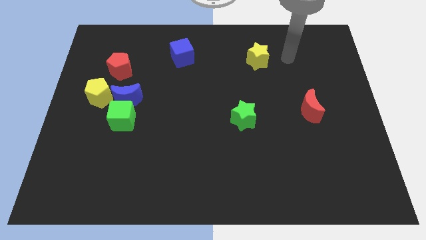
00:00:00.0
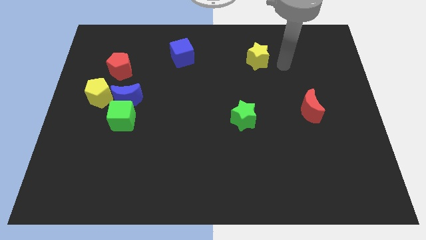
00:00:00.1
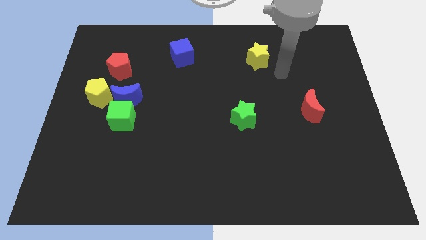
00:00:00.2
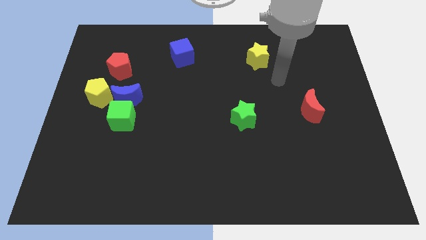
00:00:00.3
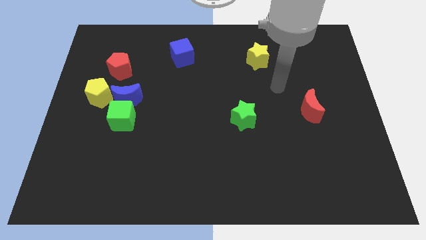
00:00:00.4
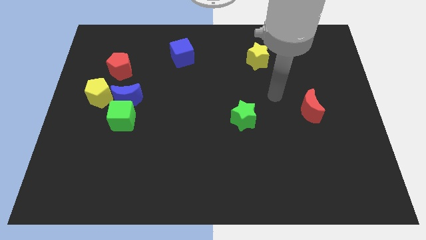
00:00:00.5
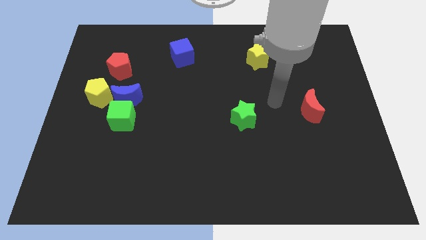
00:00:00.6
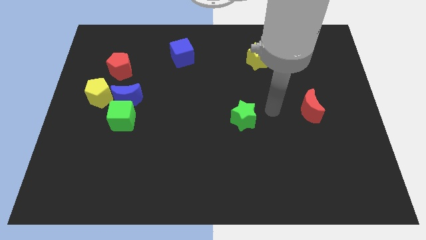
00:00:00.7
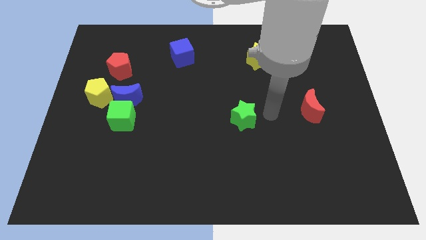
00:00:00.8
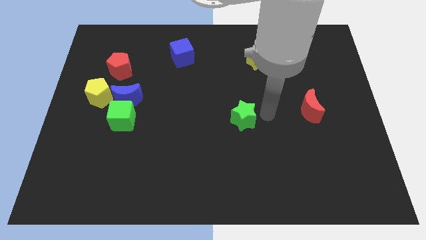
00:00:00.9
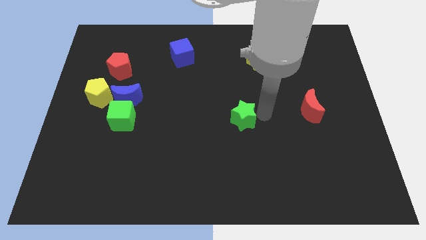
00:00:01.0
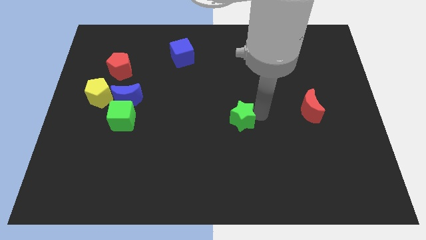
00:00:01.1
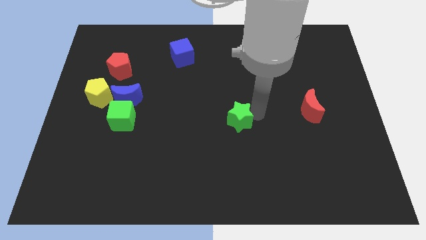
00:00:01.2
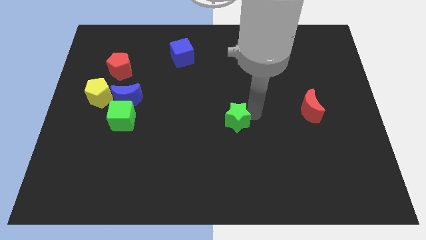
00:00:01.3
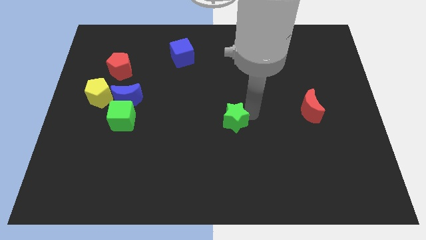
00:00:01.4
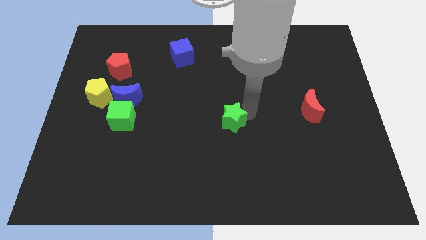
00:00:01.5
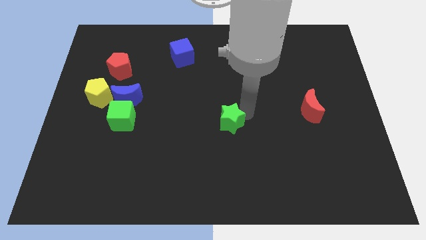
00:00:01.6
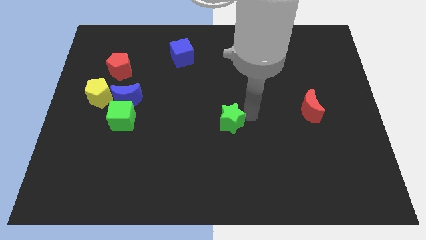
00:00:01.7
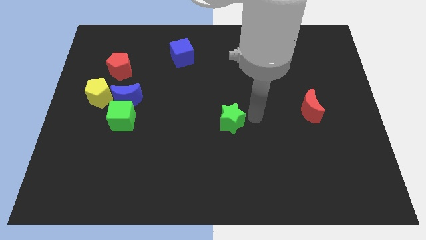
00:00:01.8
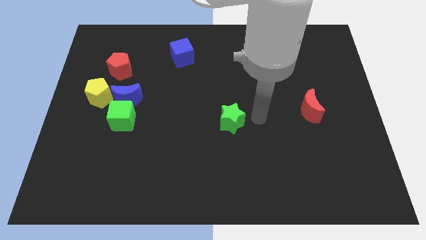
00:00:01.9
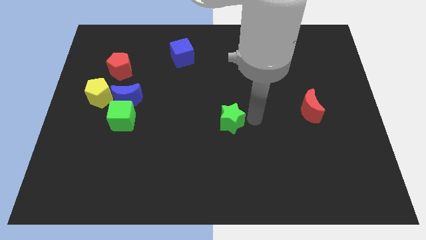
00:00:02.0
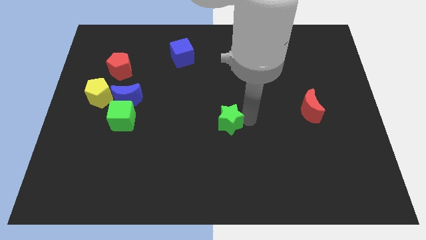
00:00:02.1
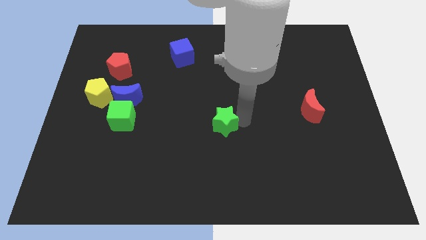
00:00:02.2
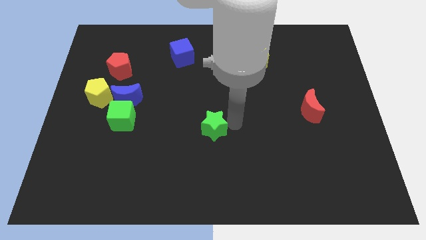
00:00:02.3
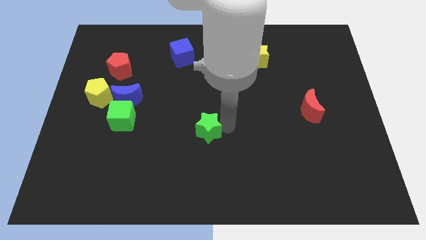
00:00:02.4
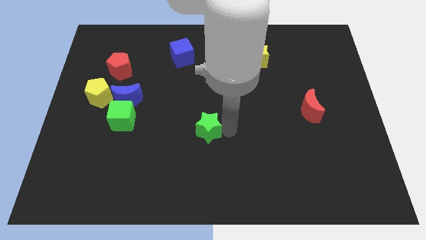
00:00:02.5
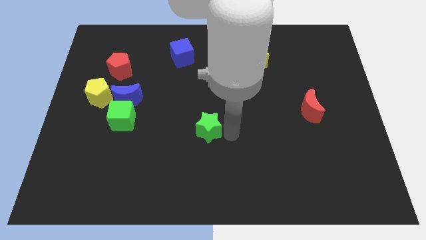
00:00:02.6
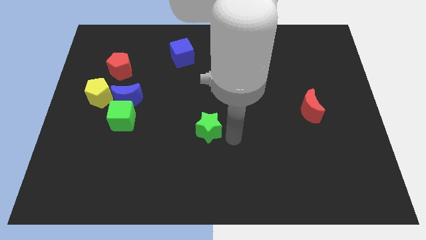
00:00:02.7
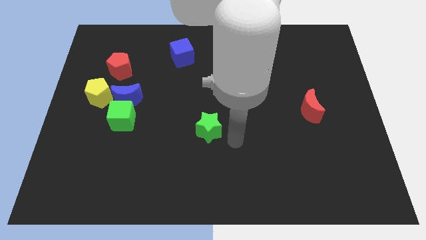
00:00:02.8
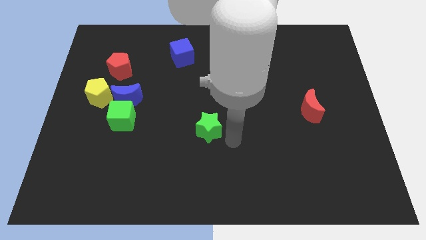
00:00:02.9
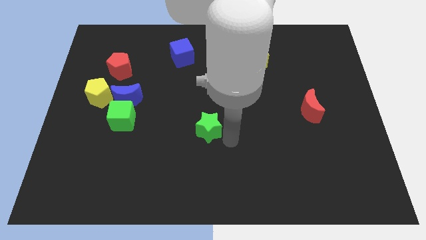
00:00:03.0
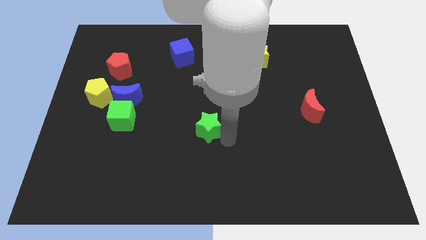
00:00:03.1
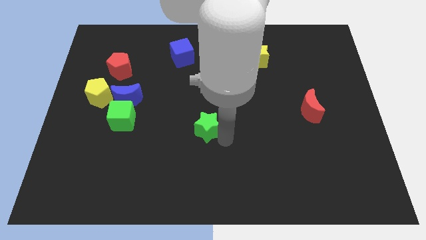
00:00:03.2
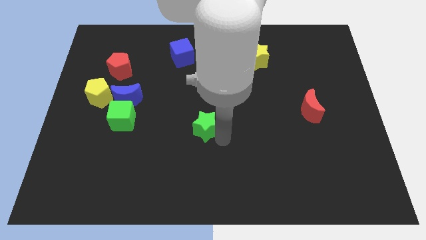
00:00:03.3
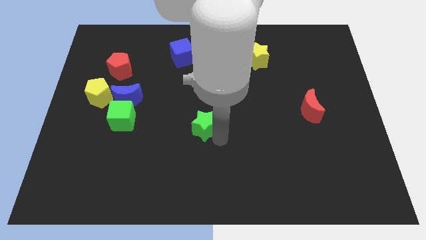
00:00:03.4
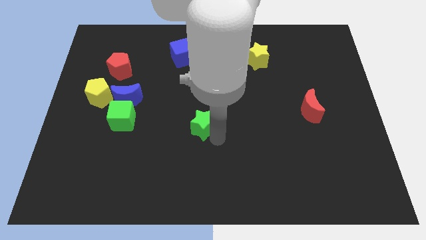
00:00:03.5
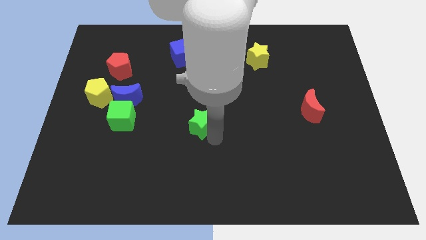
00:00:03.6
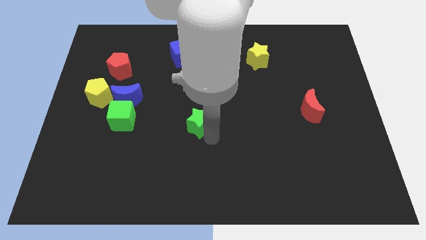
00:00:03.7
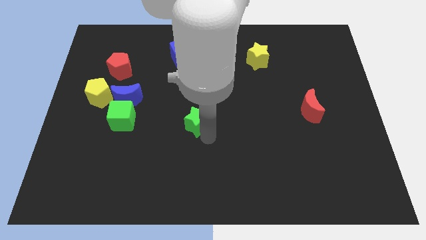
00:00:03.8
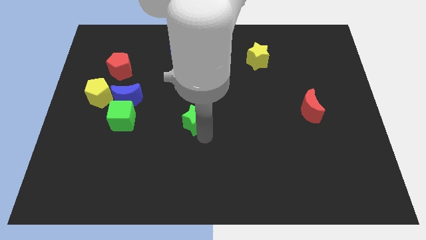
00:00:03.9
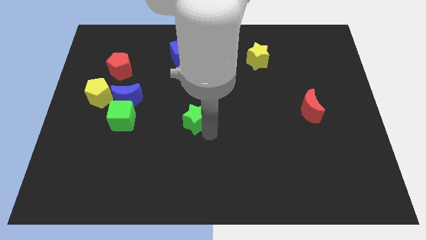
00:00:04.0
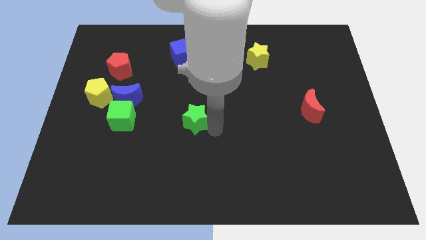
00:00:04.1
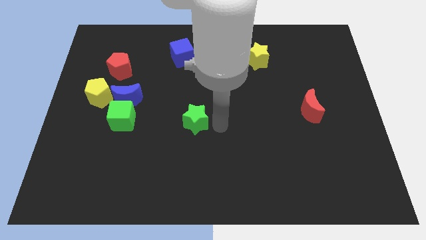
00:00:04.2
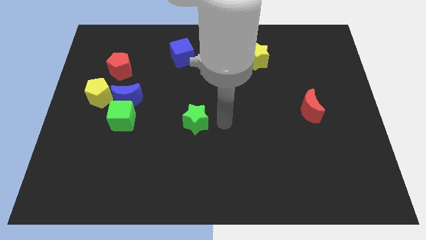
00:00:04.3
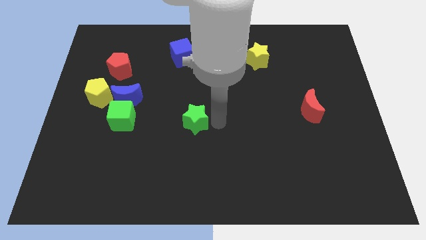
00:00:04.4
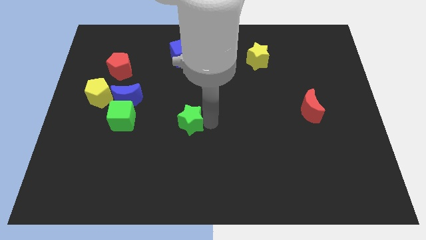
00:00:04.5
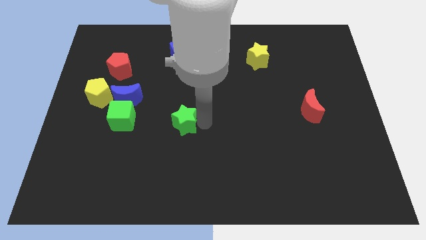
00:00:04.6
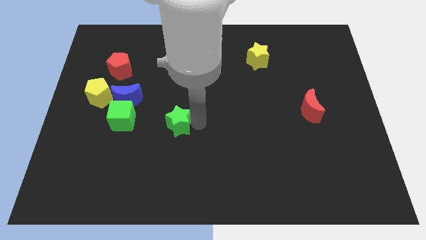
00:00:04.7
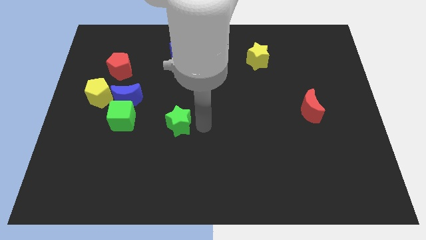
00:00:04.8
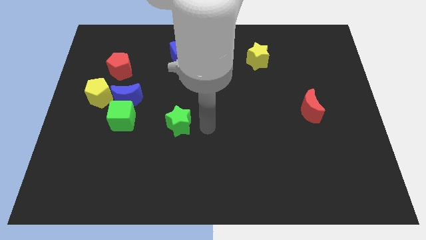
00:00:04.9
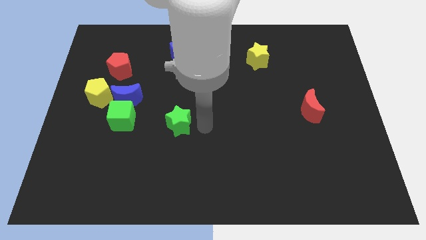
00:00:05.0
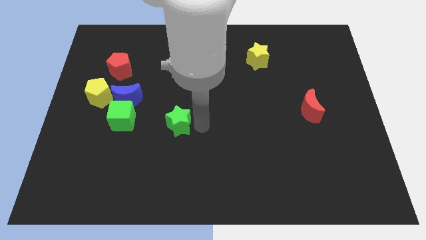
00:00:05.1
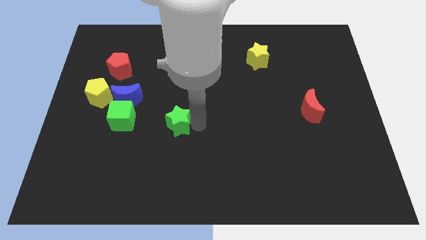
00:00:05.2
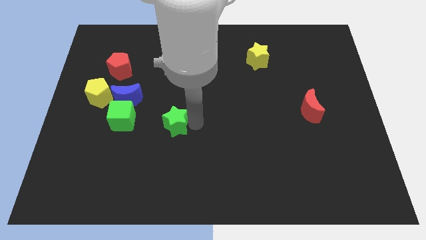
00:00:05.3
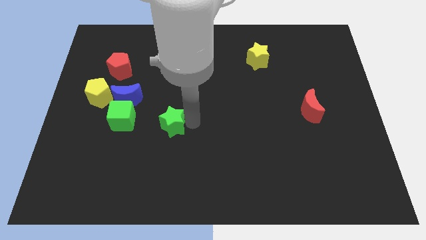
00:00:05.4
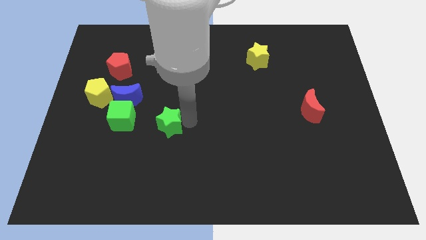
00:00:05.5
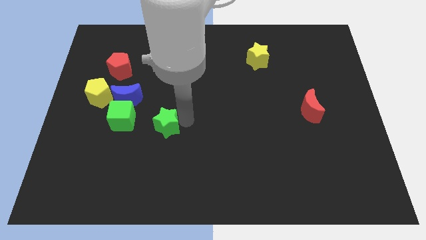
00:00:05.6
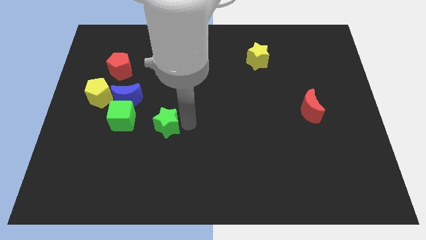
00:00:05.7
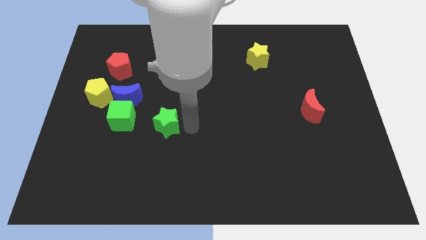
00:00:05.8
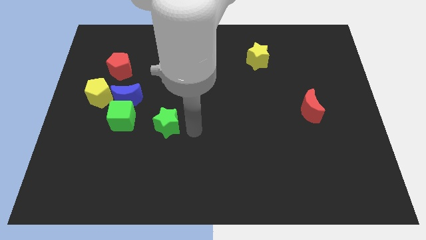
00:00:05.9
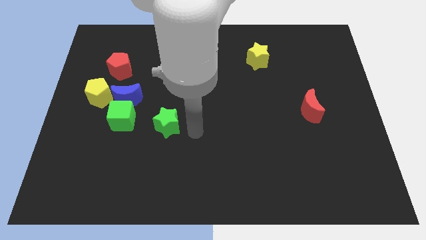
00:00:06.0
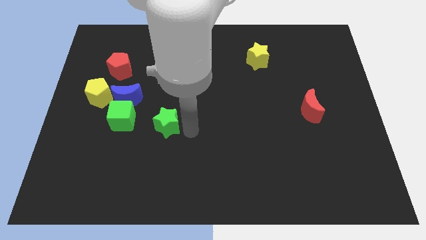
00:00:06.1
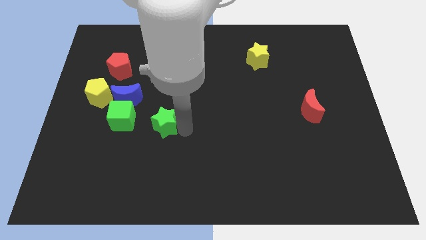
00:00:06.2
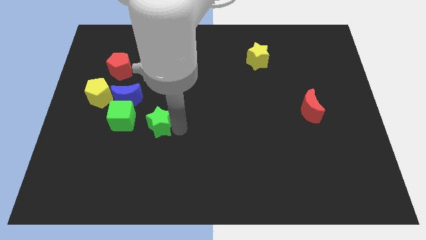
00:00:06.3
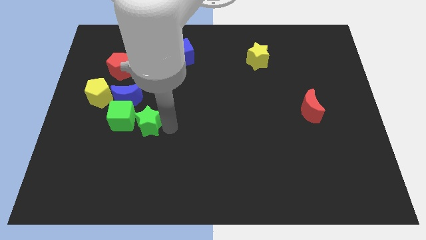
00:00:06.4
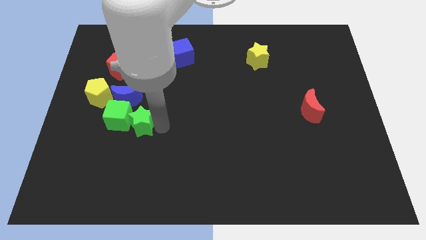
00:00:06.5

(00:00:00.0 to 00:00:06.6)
push the green star close to the green cube
